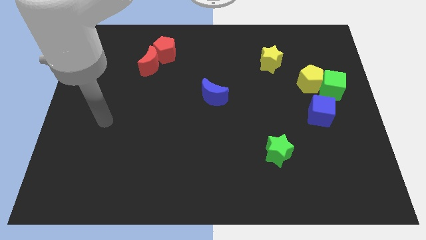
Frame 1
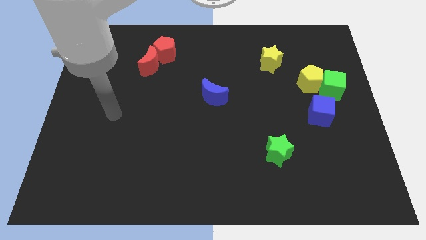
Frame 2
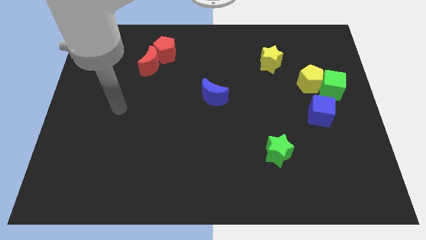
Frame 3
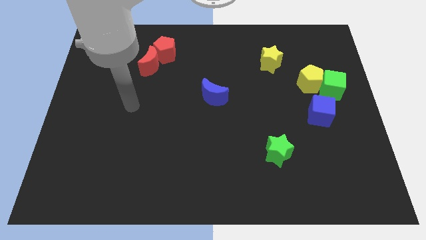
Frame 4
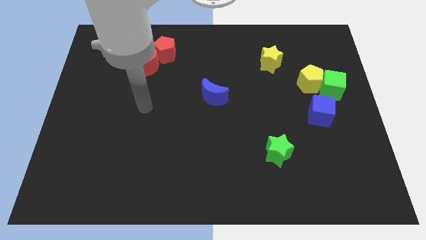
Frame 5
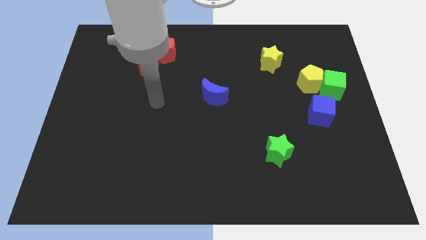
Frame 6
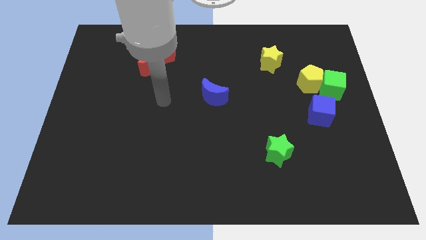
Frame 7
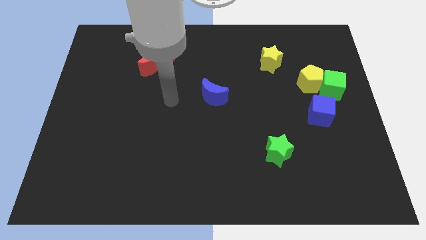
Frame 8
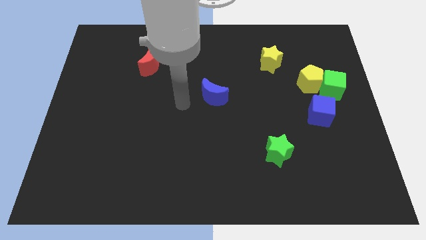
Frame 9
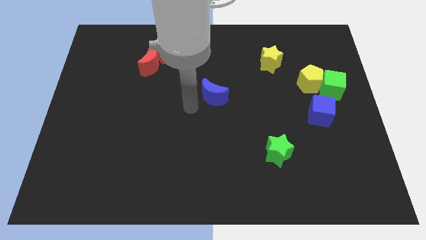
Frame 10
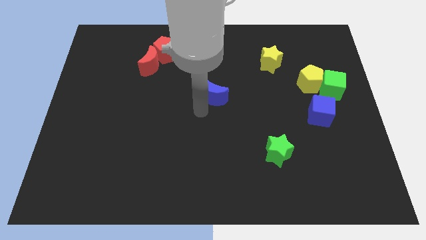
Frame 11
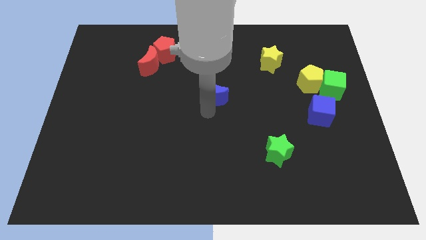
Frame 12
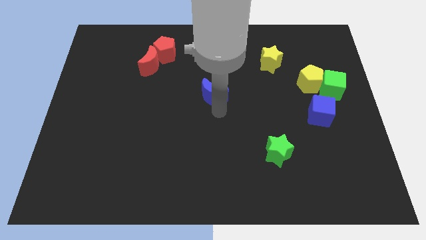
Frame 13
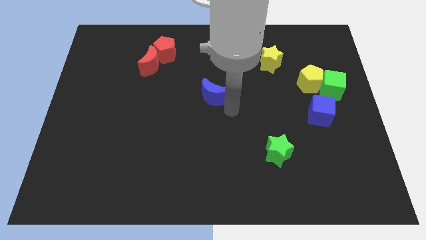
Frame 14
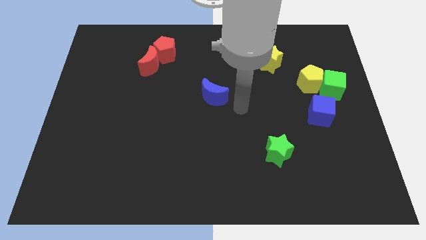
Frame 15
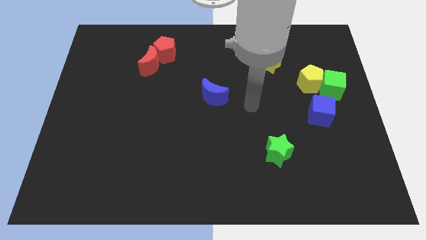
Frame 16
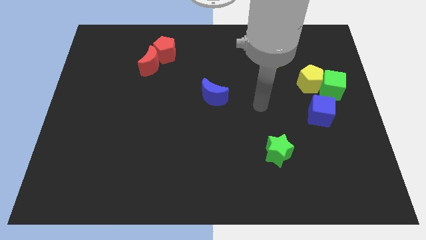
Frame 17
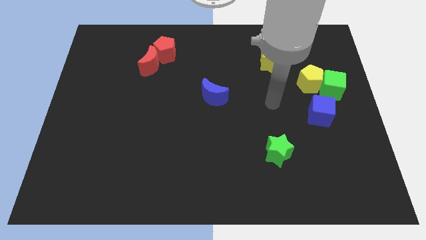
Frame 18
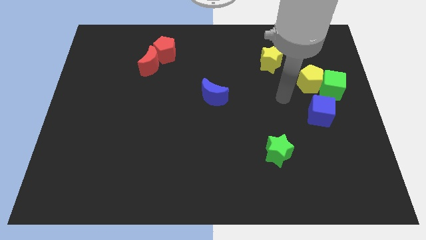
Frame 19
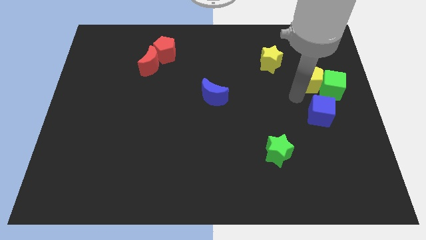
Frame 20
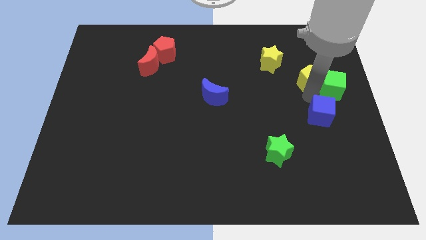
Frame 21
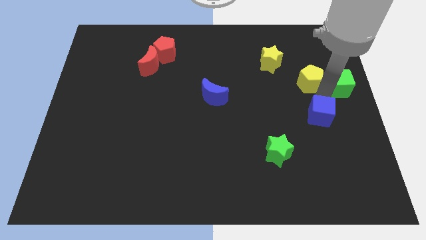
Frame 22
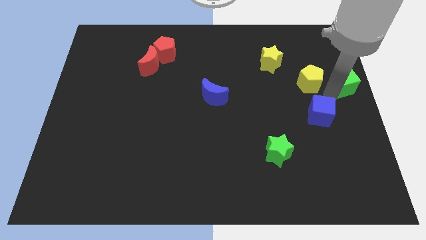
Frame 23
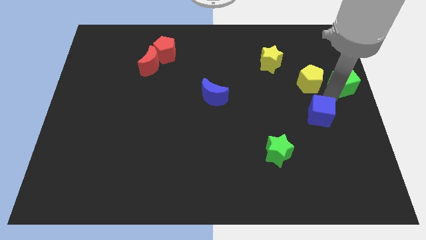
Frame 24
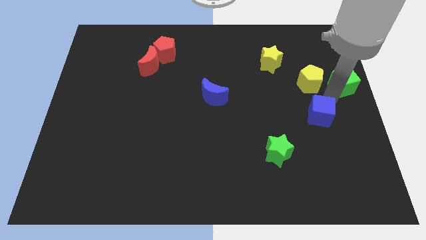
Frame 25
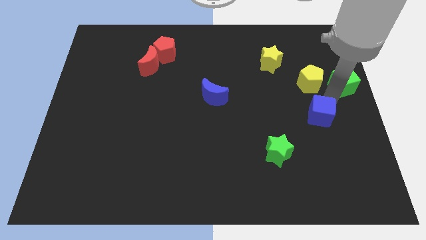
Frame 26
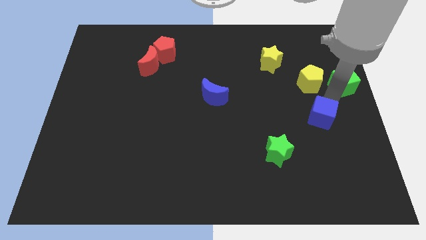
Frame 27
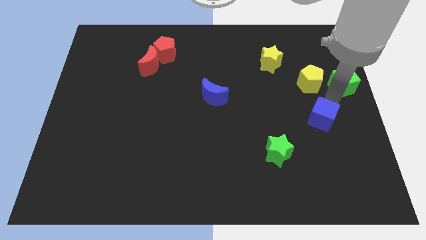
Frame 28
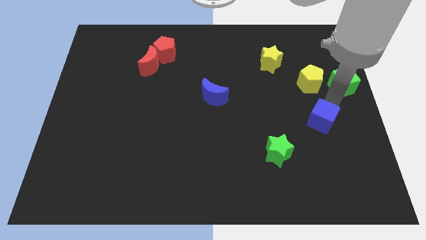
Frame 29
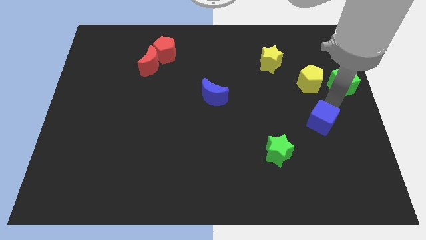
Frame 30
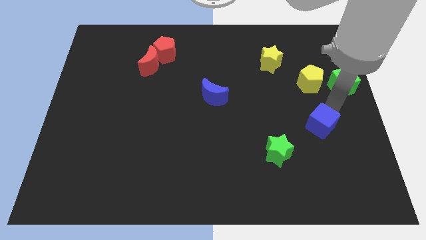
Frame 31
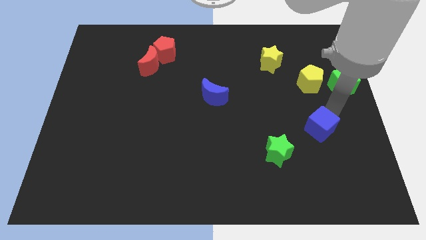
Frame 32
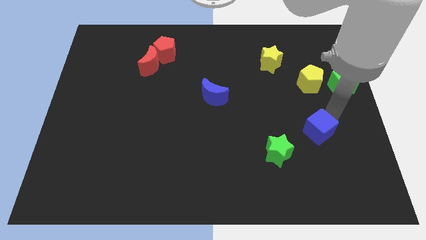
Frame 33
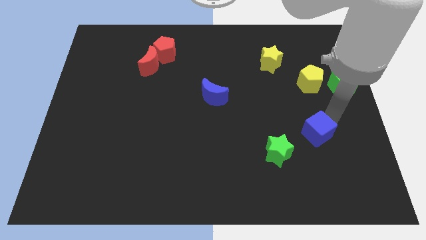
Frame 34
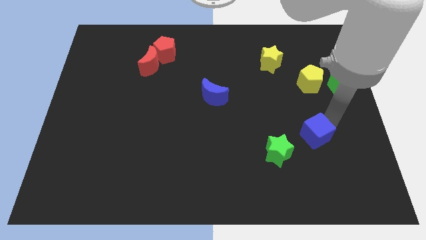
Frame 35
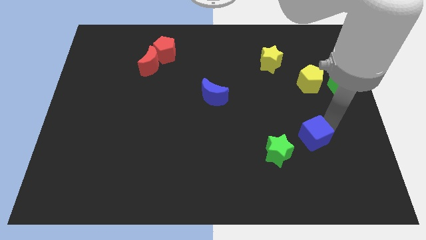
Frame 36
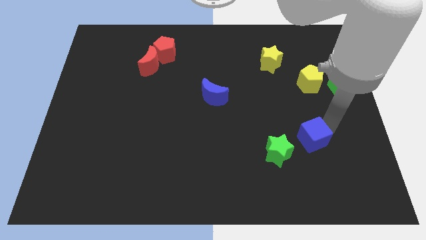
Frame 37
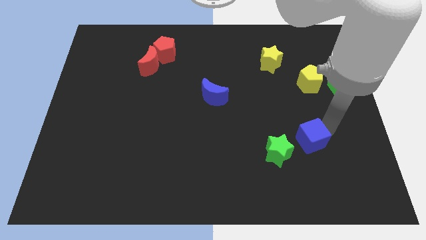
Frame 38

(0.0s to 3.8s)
slide the blue cube slightly diagonally downwards and to the left

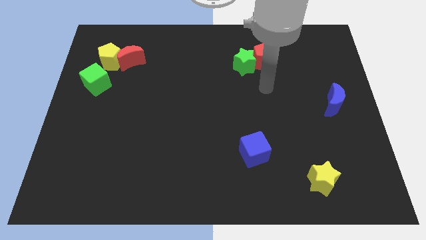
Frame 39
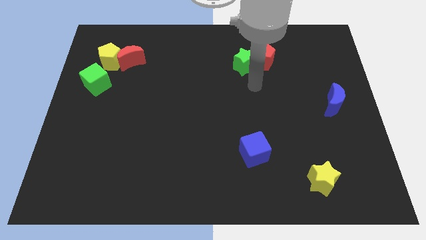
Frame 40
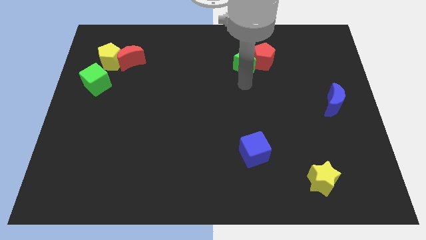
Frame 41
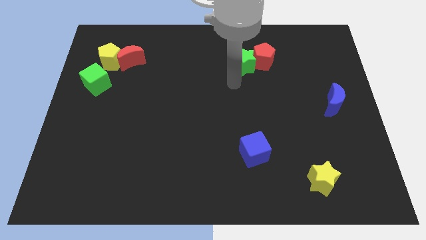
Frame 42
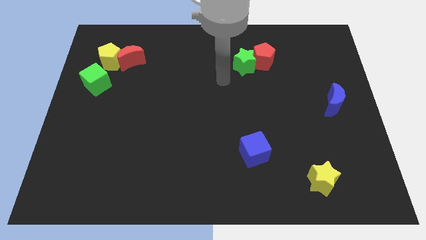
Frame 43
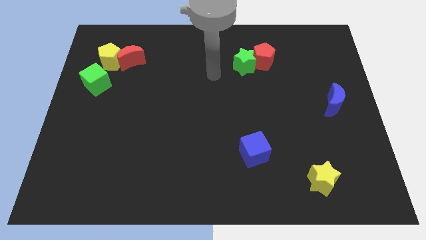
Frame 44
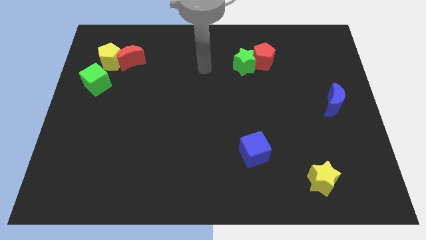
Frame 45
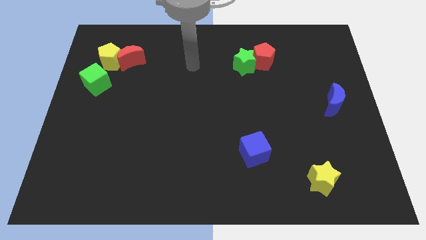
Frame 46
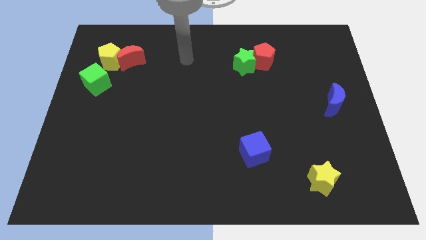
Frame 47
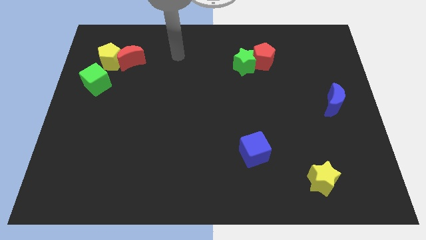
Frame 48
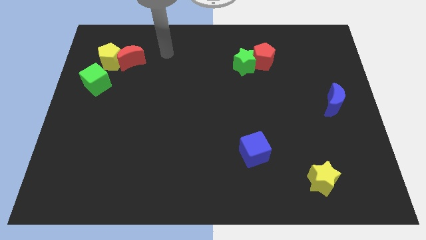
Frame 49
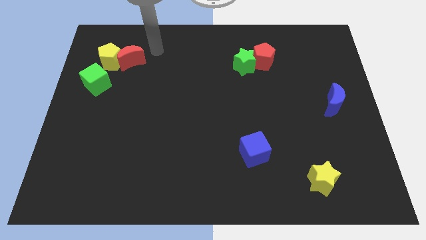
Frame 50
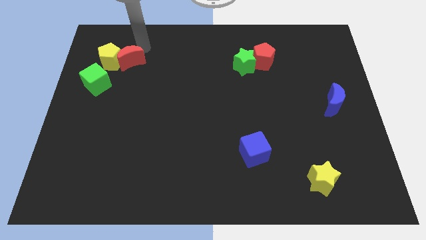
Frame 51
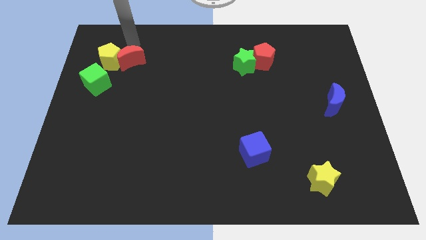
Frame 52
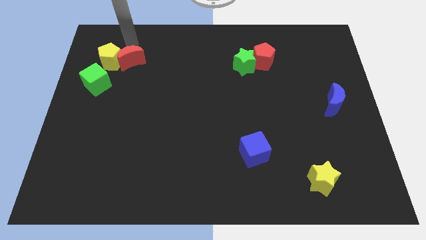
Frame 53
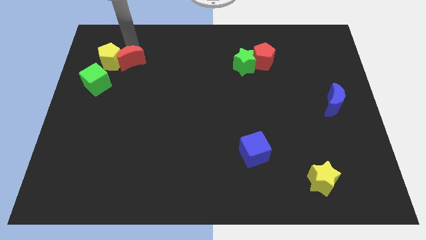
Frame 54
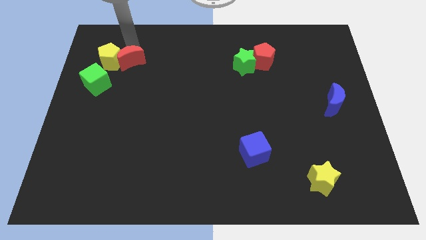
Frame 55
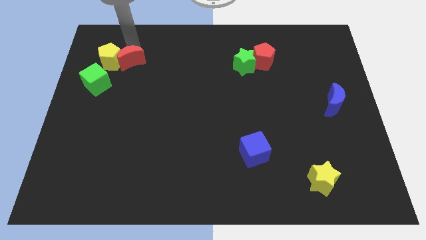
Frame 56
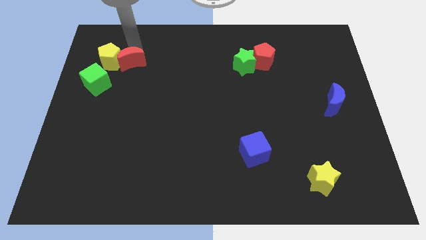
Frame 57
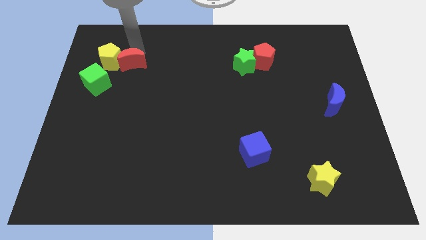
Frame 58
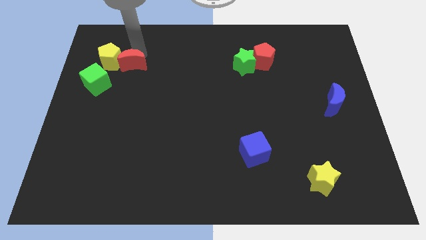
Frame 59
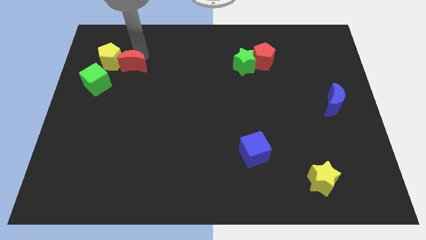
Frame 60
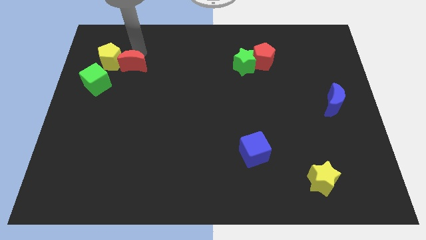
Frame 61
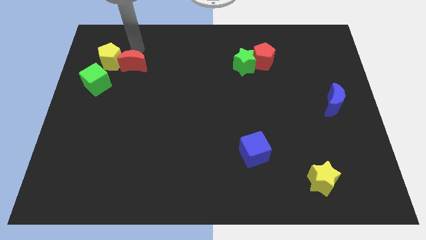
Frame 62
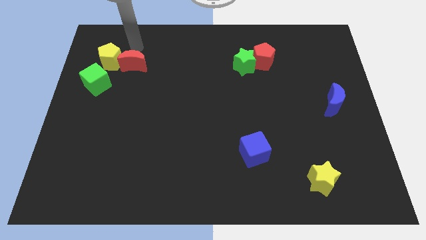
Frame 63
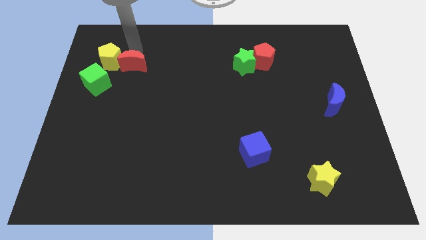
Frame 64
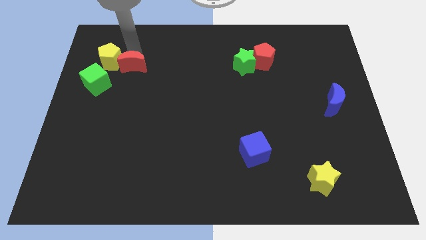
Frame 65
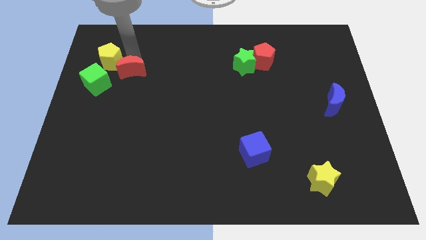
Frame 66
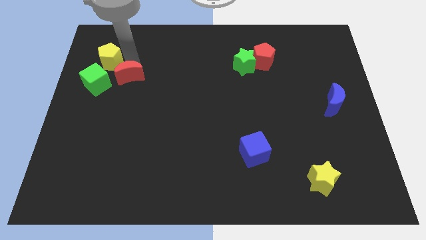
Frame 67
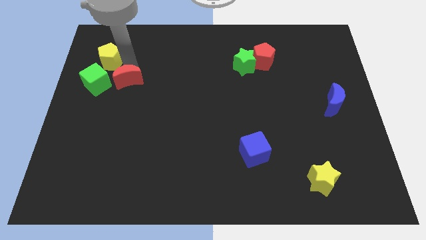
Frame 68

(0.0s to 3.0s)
slide the red moon down slightly

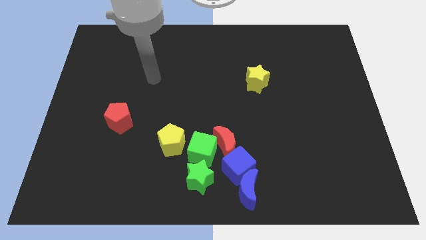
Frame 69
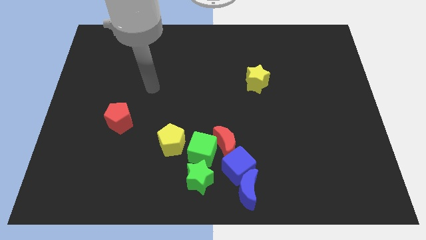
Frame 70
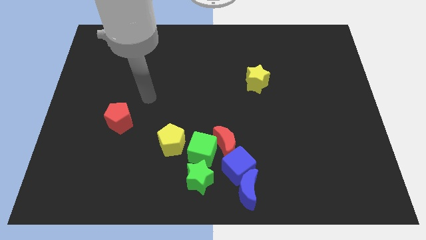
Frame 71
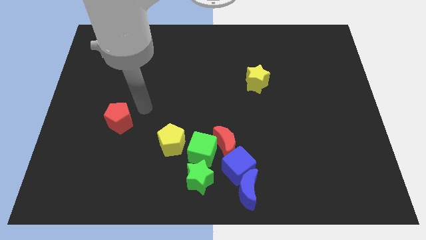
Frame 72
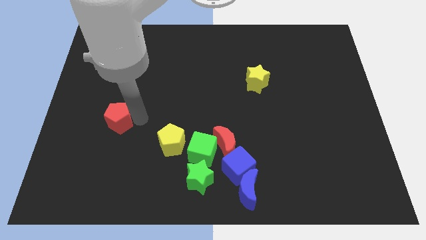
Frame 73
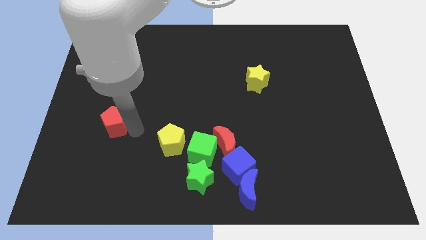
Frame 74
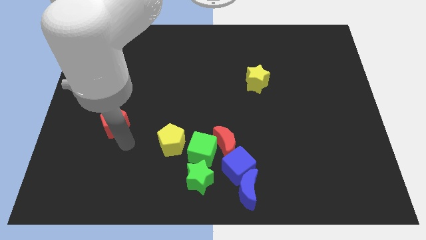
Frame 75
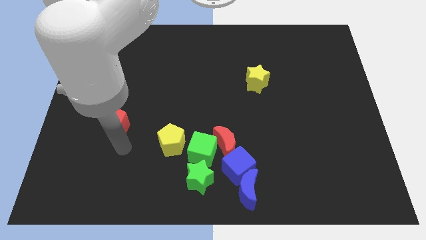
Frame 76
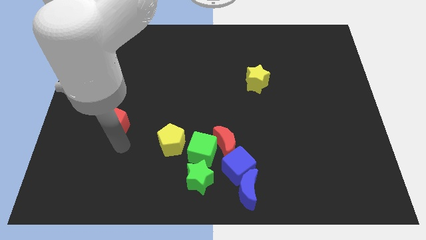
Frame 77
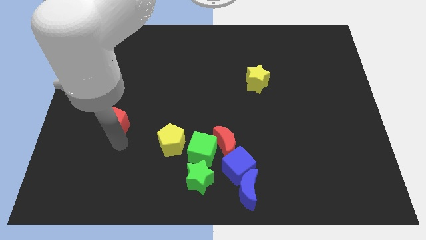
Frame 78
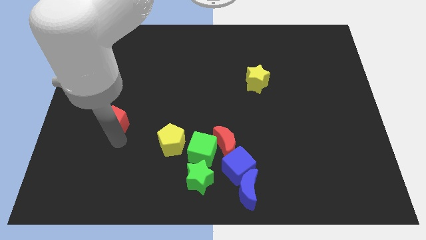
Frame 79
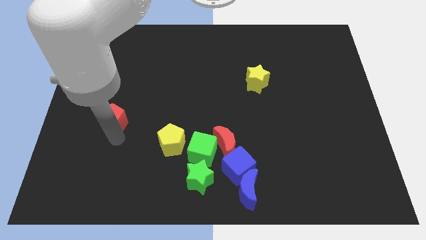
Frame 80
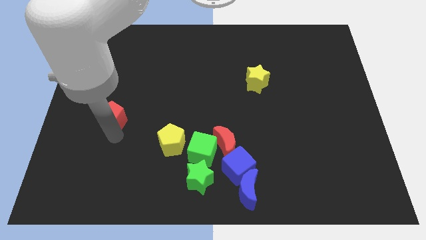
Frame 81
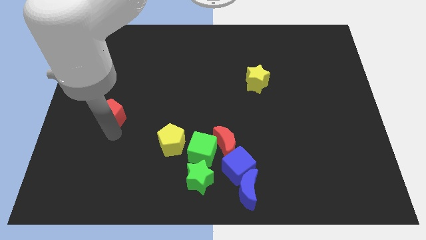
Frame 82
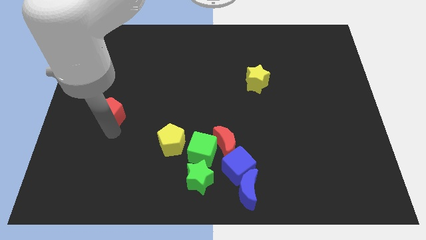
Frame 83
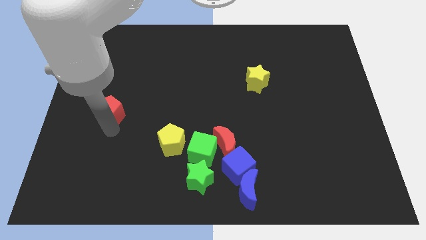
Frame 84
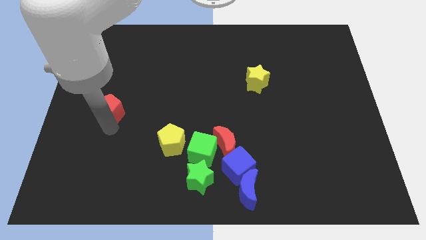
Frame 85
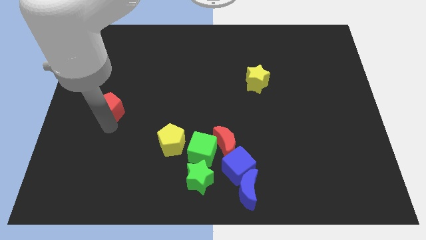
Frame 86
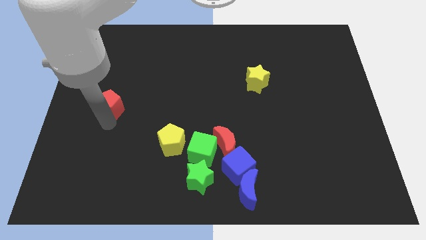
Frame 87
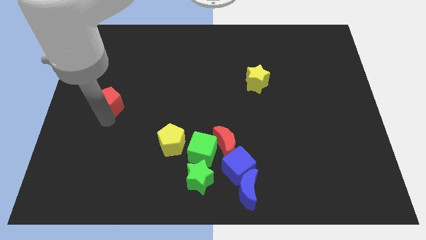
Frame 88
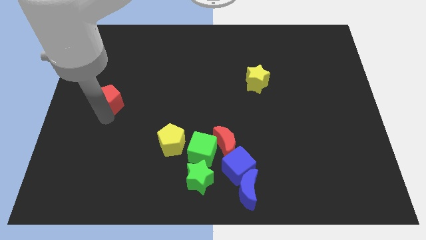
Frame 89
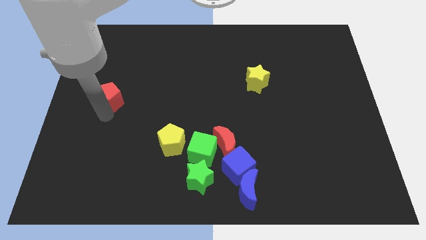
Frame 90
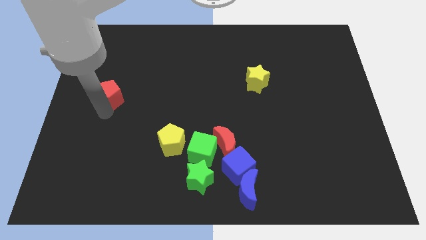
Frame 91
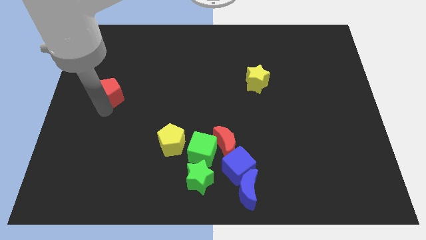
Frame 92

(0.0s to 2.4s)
move the red pentagon a little up
